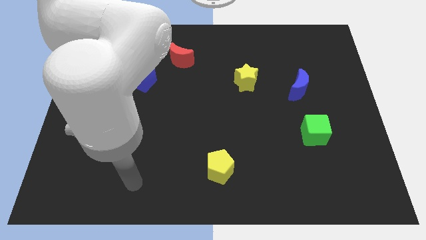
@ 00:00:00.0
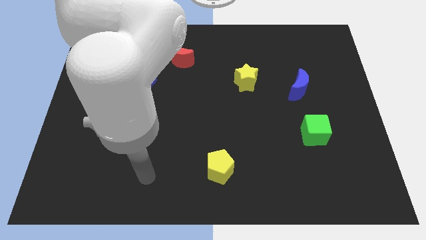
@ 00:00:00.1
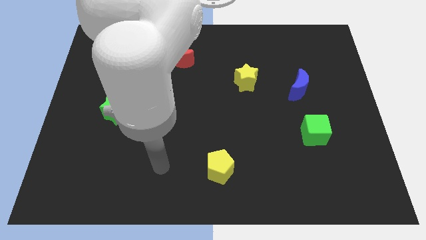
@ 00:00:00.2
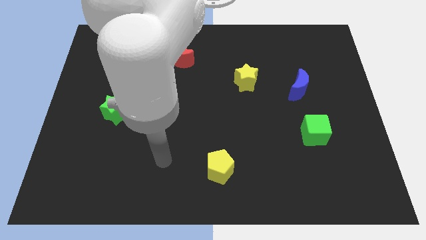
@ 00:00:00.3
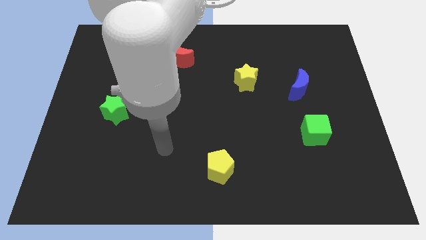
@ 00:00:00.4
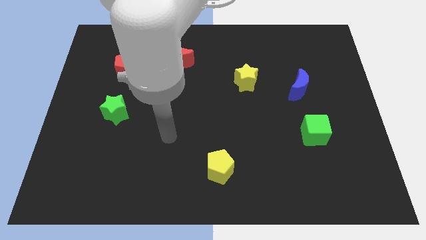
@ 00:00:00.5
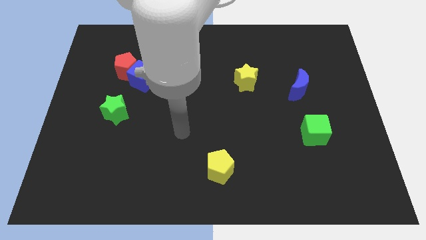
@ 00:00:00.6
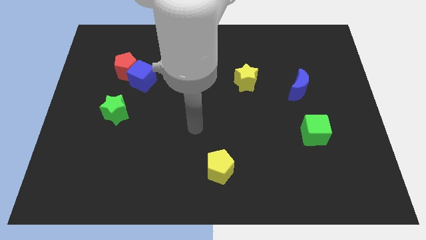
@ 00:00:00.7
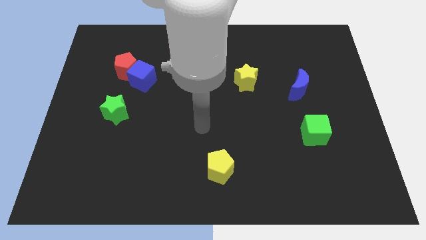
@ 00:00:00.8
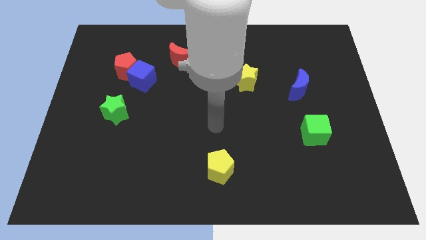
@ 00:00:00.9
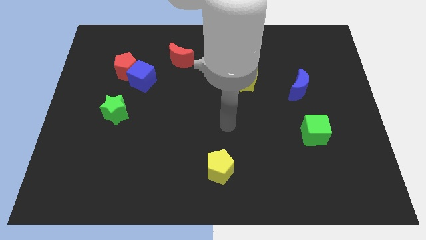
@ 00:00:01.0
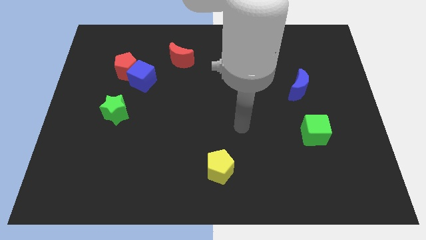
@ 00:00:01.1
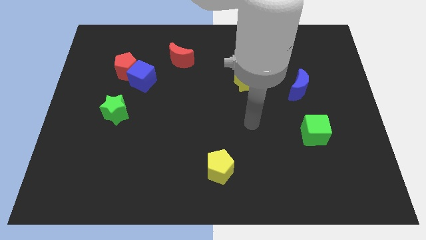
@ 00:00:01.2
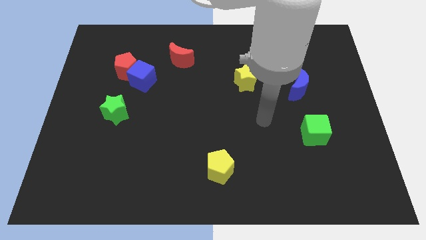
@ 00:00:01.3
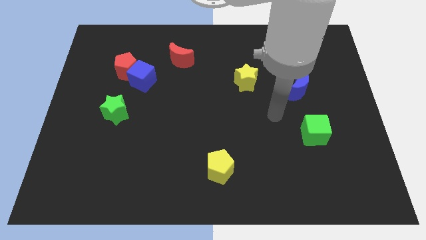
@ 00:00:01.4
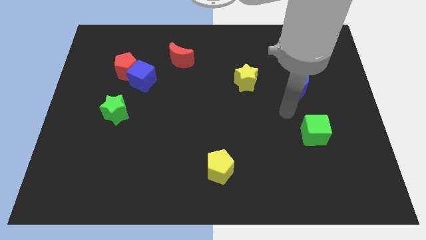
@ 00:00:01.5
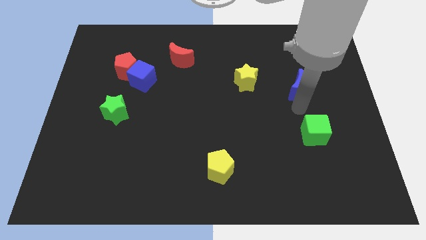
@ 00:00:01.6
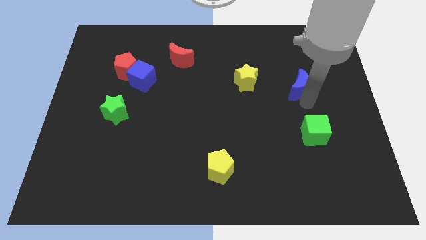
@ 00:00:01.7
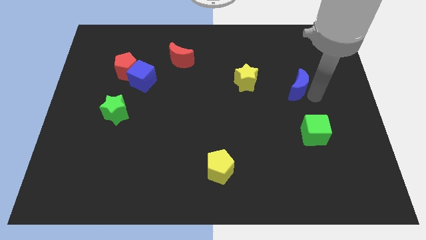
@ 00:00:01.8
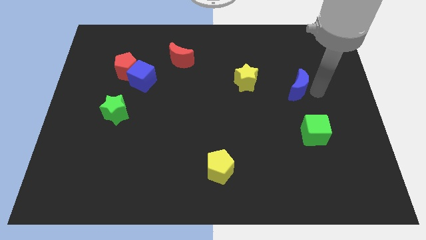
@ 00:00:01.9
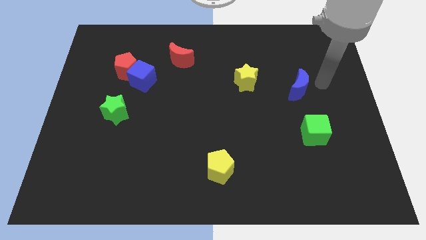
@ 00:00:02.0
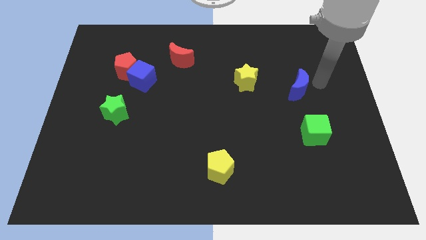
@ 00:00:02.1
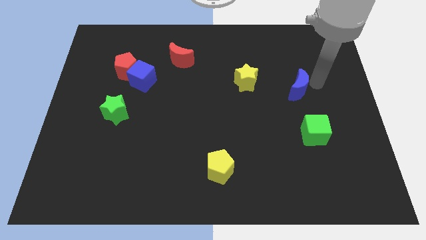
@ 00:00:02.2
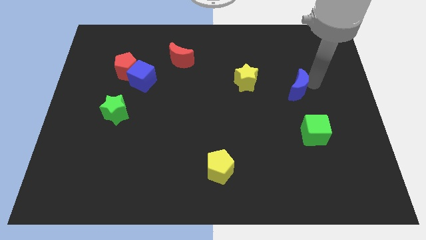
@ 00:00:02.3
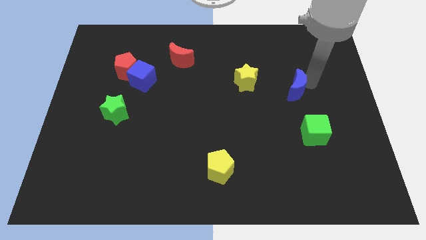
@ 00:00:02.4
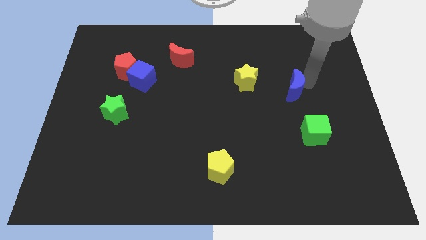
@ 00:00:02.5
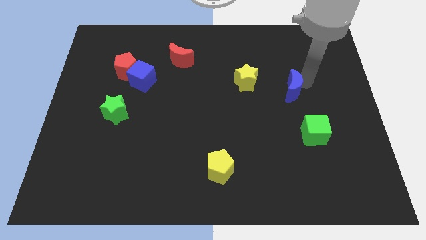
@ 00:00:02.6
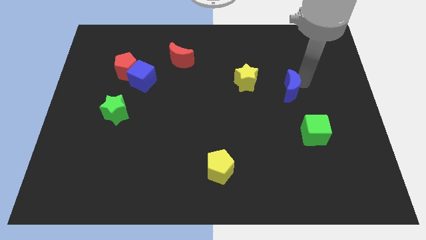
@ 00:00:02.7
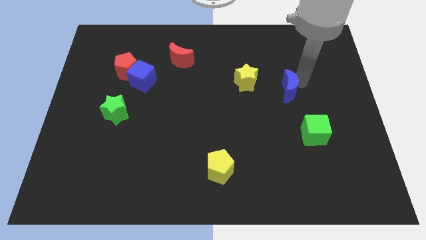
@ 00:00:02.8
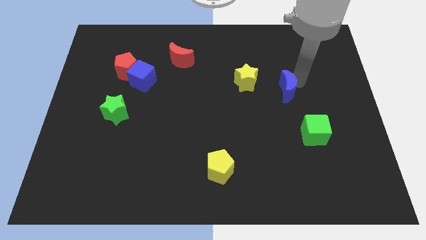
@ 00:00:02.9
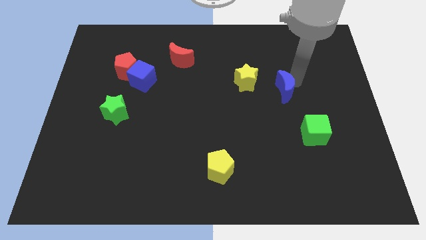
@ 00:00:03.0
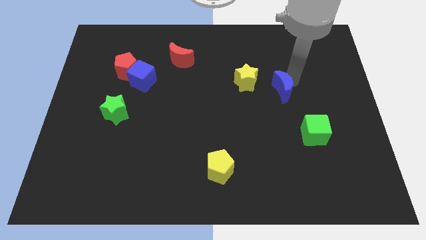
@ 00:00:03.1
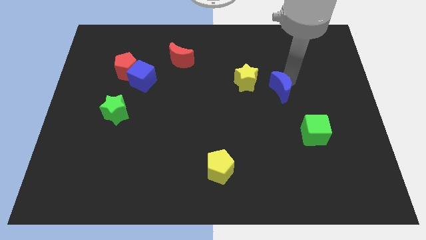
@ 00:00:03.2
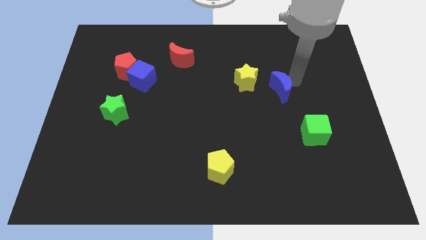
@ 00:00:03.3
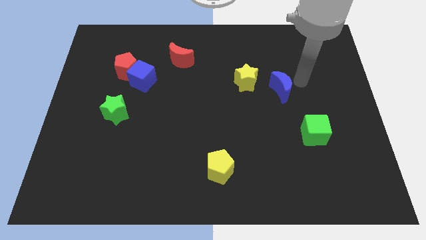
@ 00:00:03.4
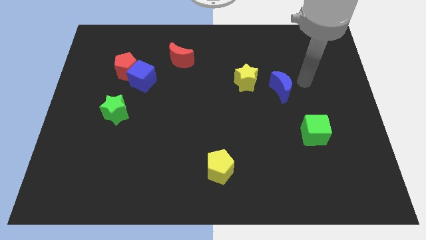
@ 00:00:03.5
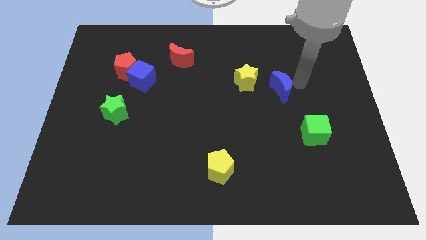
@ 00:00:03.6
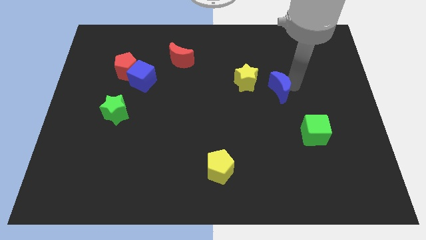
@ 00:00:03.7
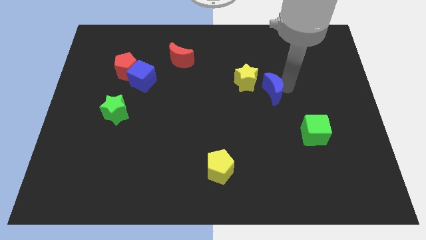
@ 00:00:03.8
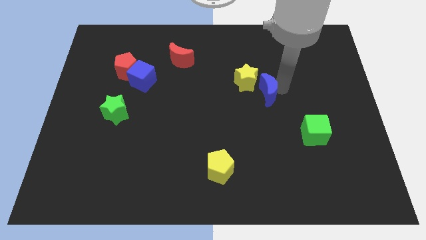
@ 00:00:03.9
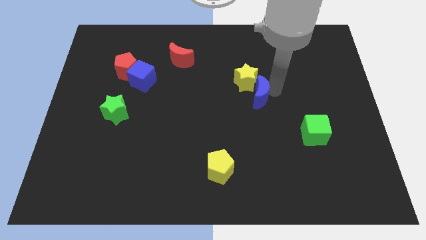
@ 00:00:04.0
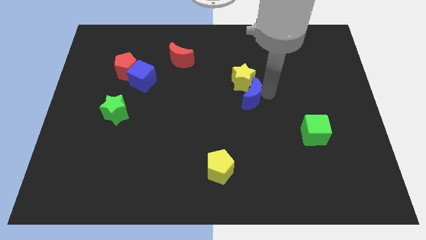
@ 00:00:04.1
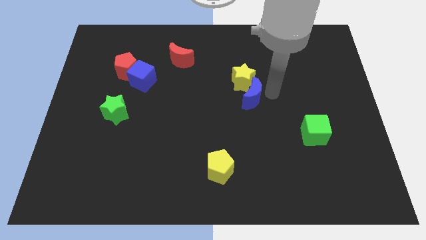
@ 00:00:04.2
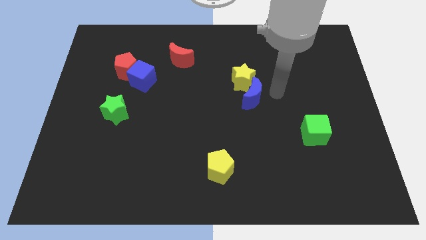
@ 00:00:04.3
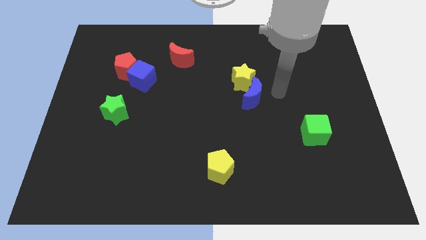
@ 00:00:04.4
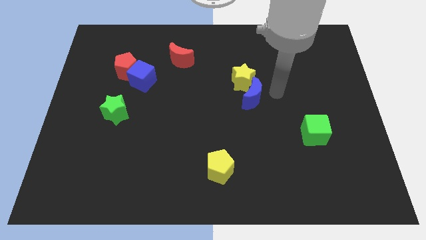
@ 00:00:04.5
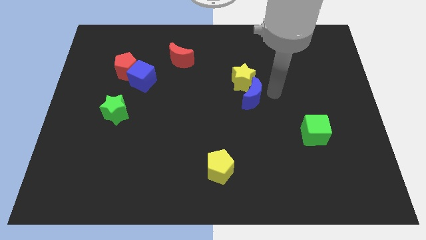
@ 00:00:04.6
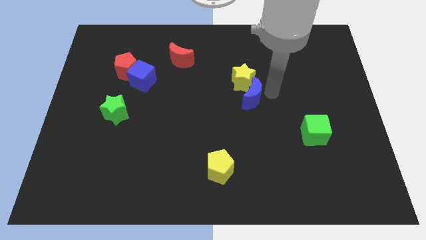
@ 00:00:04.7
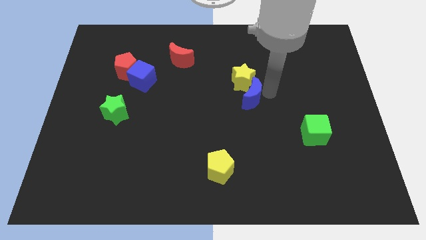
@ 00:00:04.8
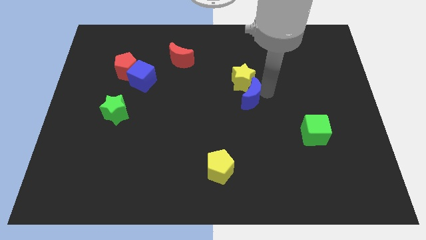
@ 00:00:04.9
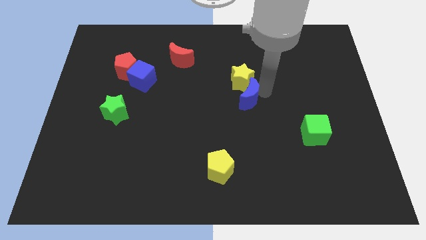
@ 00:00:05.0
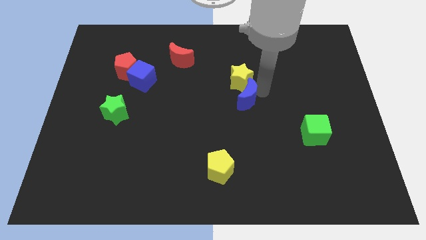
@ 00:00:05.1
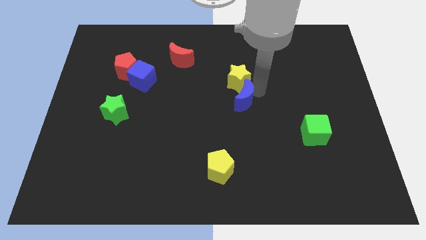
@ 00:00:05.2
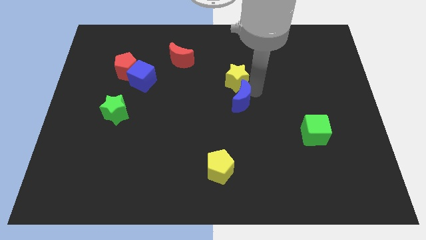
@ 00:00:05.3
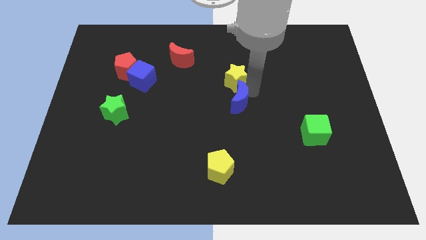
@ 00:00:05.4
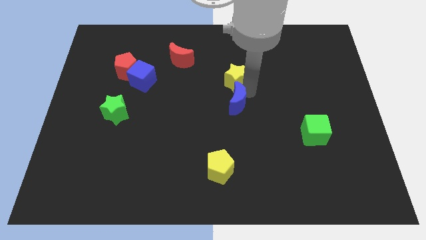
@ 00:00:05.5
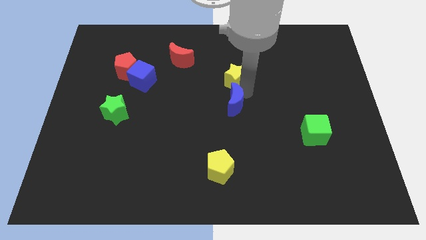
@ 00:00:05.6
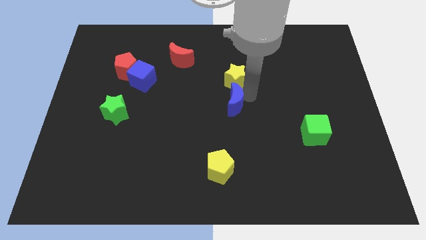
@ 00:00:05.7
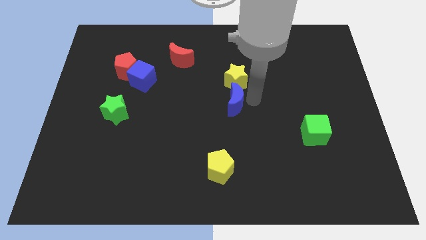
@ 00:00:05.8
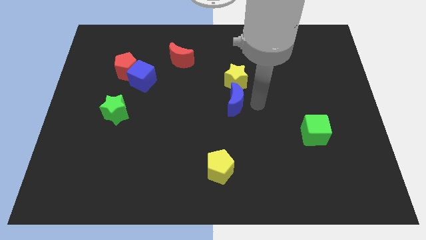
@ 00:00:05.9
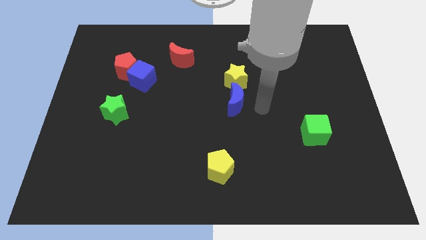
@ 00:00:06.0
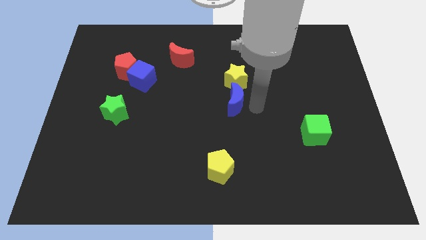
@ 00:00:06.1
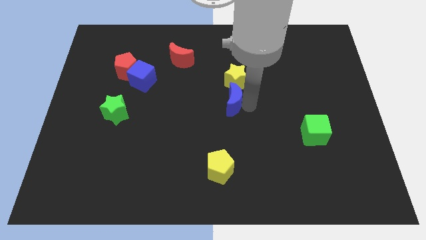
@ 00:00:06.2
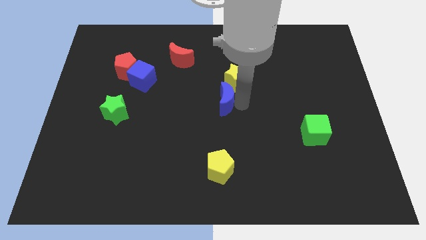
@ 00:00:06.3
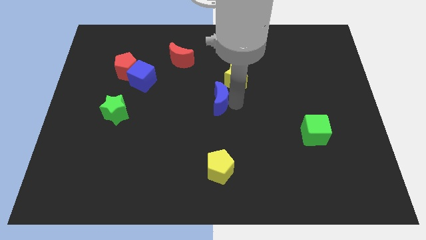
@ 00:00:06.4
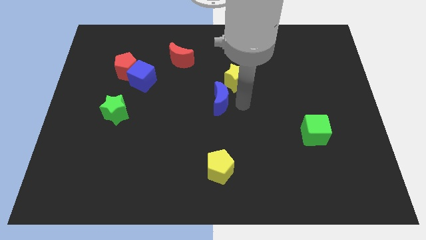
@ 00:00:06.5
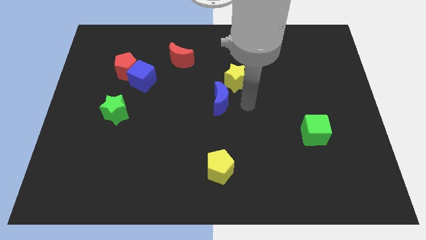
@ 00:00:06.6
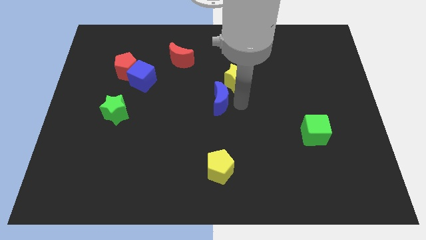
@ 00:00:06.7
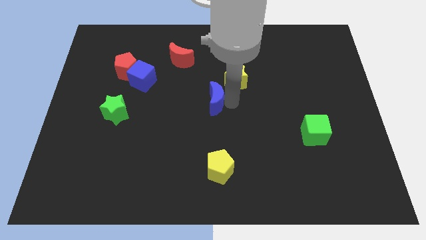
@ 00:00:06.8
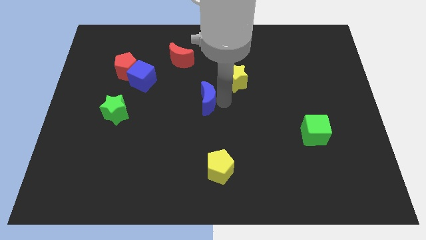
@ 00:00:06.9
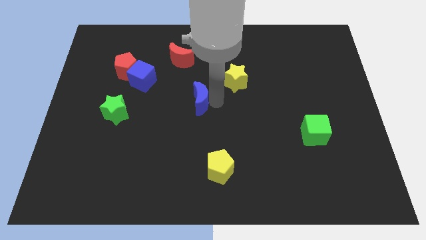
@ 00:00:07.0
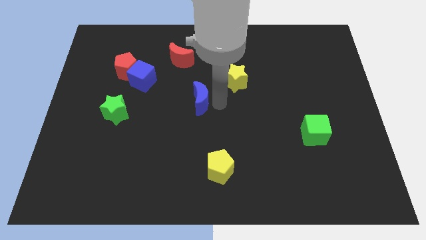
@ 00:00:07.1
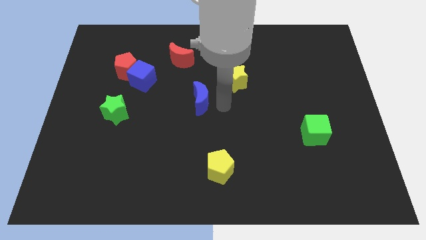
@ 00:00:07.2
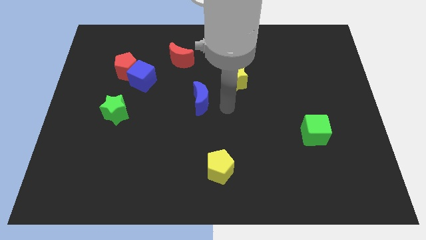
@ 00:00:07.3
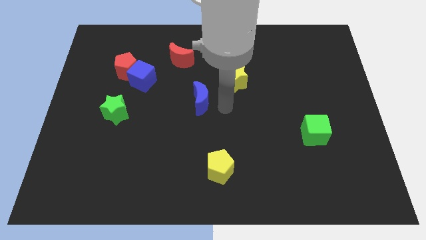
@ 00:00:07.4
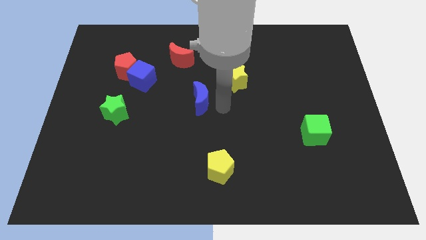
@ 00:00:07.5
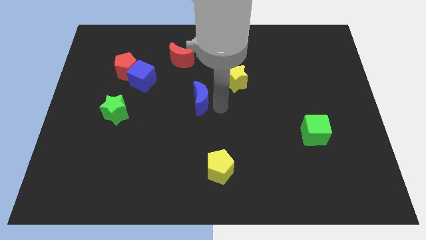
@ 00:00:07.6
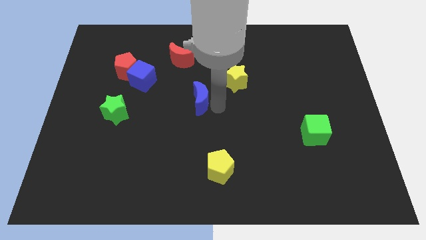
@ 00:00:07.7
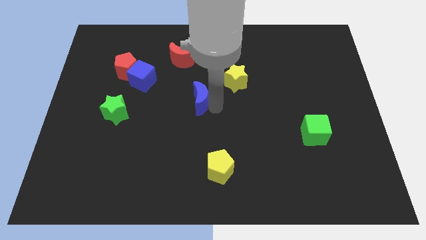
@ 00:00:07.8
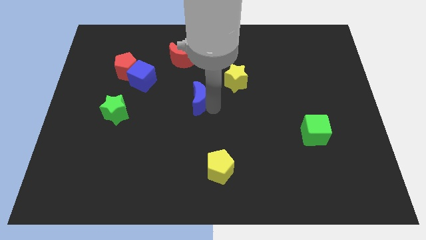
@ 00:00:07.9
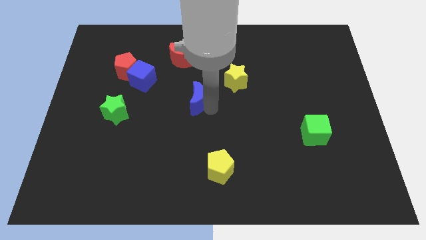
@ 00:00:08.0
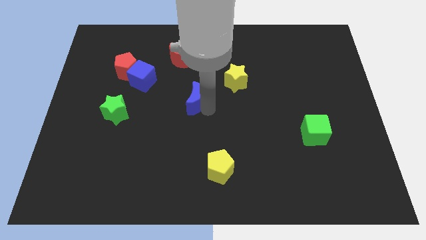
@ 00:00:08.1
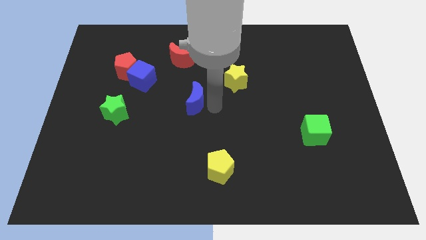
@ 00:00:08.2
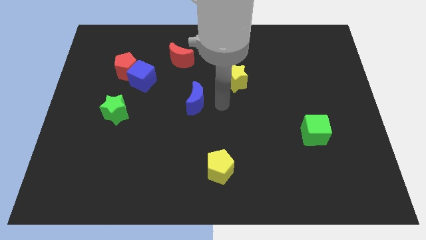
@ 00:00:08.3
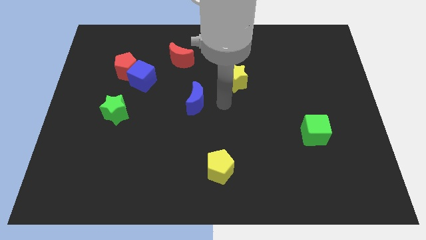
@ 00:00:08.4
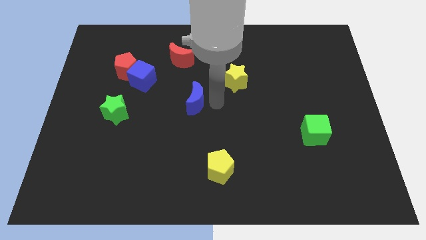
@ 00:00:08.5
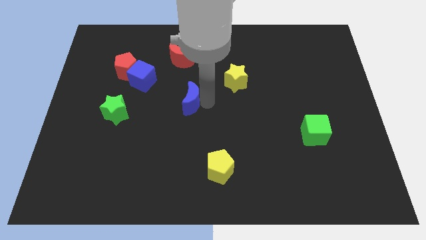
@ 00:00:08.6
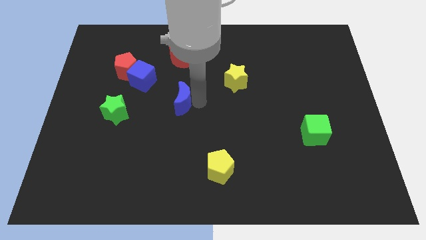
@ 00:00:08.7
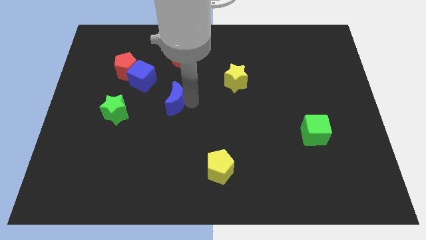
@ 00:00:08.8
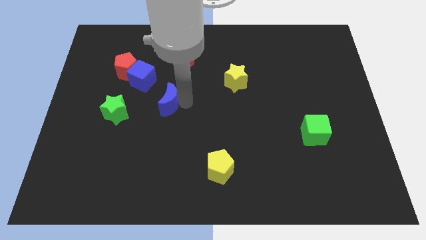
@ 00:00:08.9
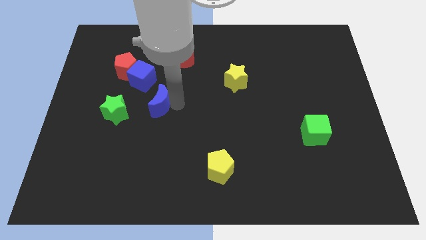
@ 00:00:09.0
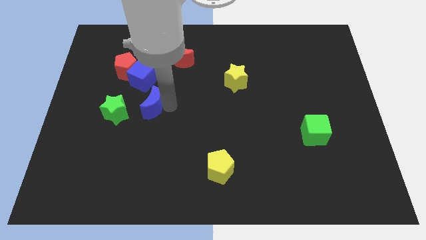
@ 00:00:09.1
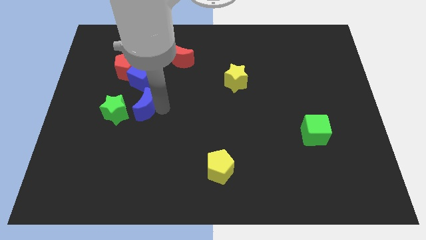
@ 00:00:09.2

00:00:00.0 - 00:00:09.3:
push the blue moon diagonally up and to the right of the green star
